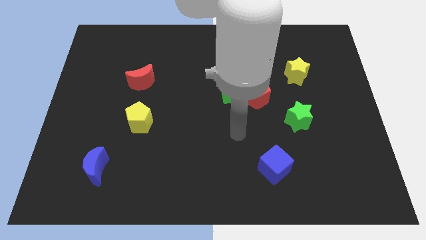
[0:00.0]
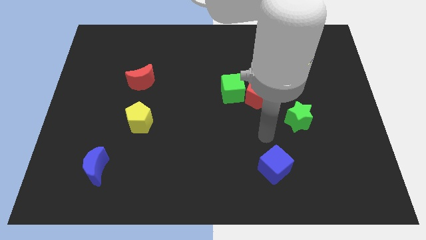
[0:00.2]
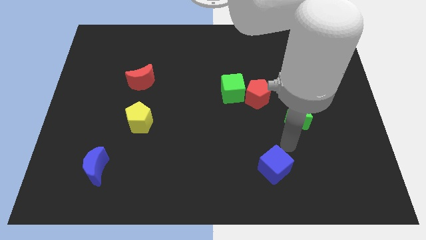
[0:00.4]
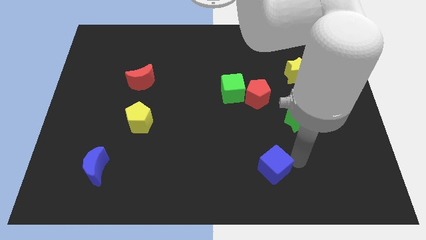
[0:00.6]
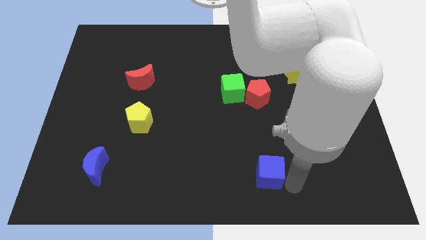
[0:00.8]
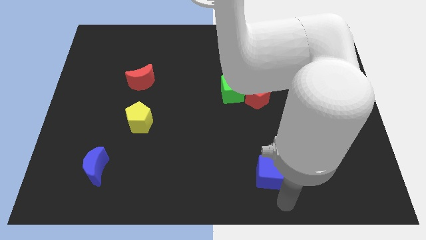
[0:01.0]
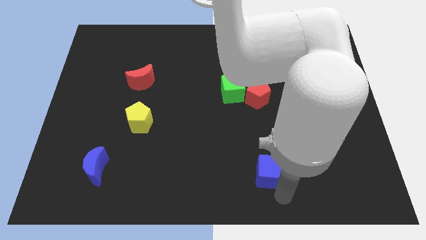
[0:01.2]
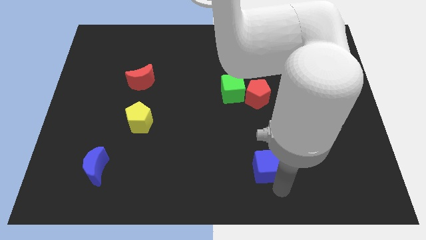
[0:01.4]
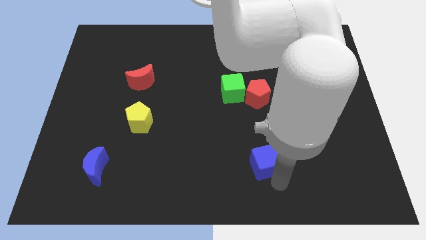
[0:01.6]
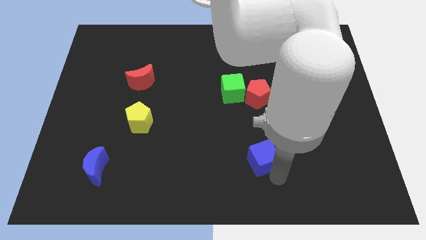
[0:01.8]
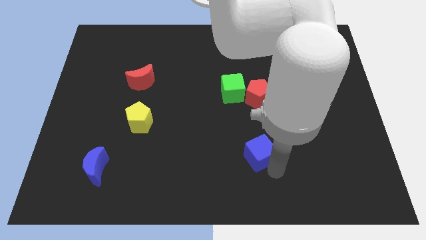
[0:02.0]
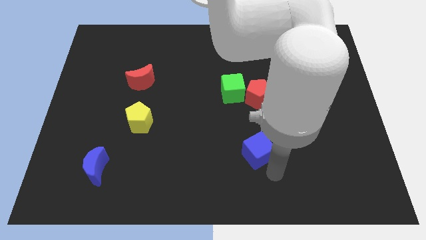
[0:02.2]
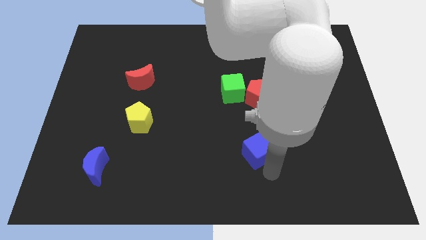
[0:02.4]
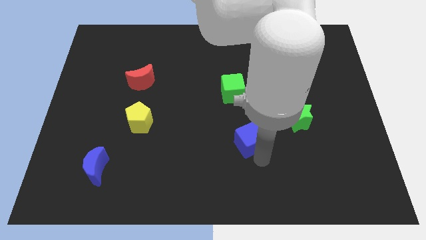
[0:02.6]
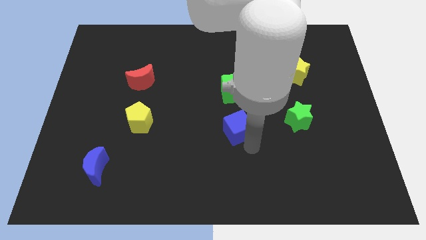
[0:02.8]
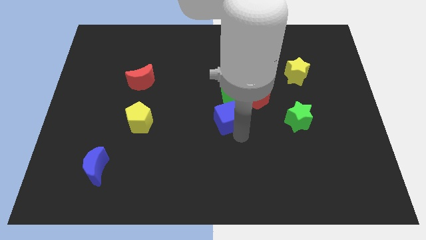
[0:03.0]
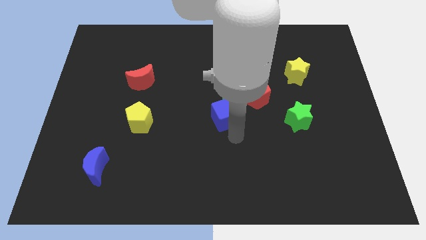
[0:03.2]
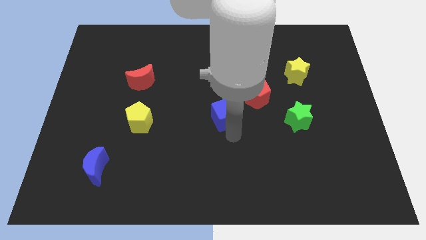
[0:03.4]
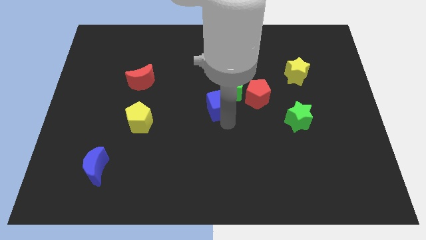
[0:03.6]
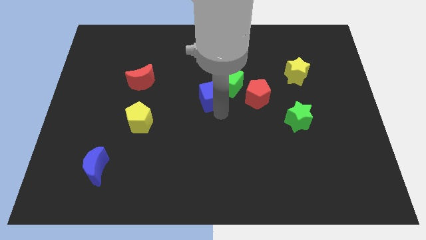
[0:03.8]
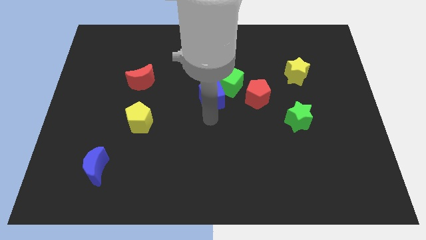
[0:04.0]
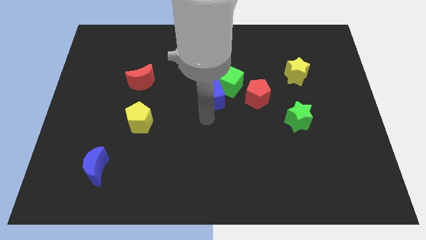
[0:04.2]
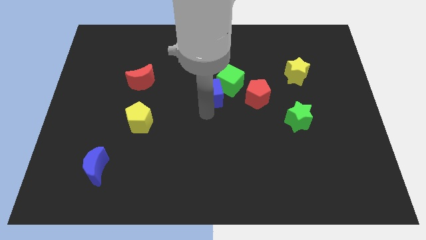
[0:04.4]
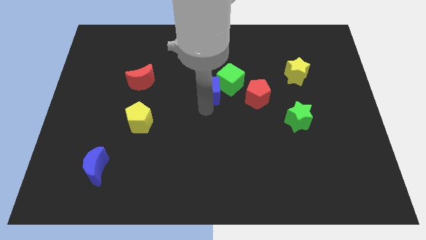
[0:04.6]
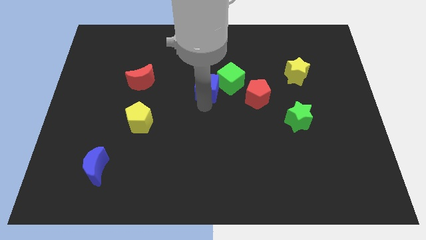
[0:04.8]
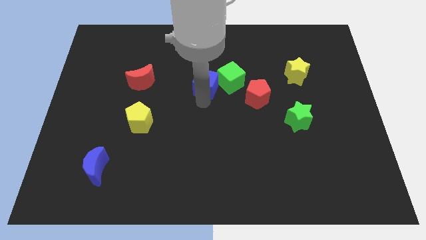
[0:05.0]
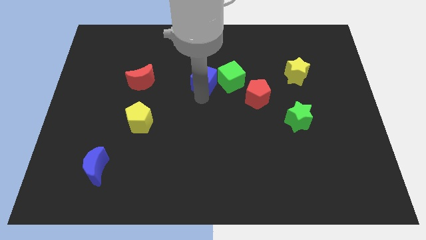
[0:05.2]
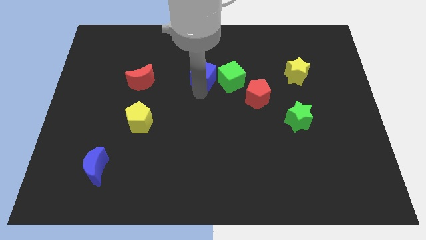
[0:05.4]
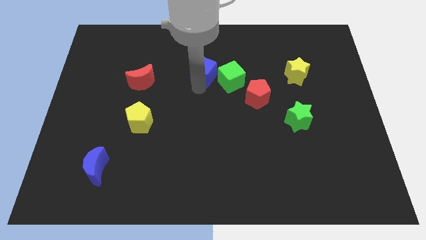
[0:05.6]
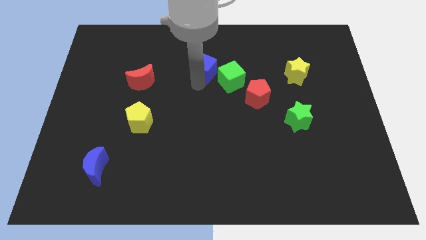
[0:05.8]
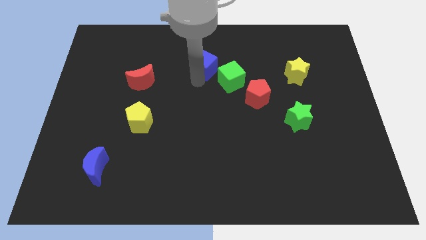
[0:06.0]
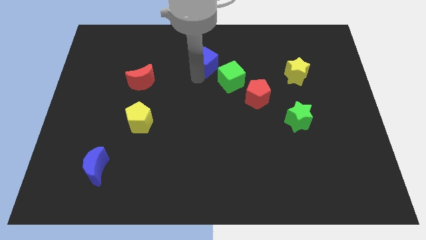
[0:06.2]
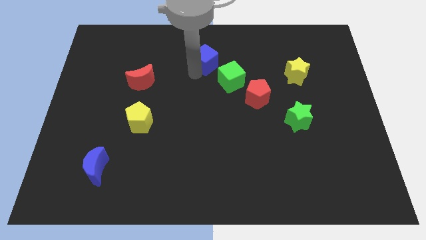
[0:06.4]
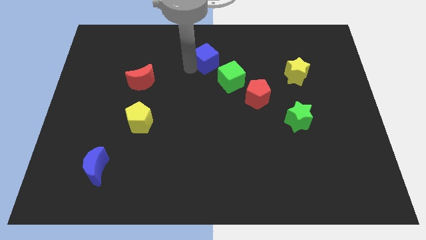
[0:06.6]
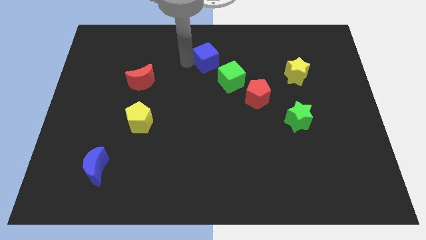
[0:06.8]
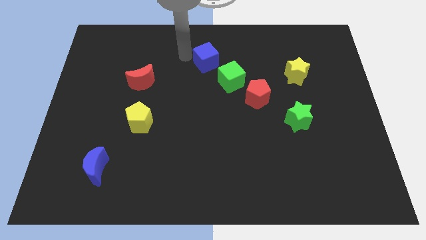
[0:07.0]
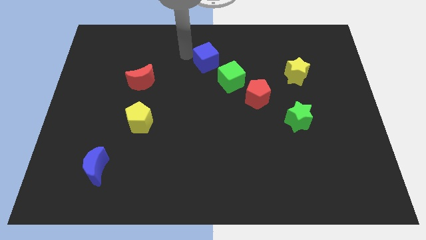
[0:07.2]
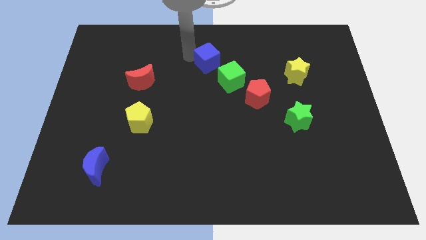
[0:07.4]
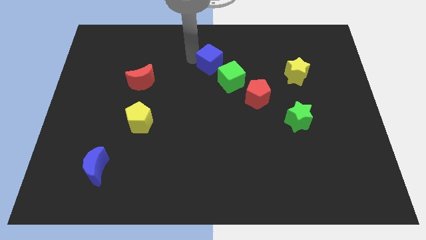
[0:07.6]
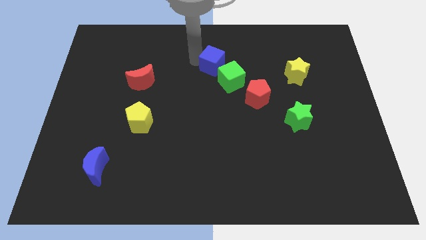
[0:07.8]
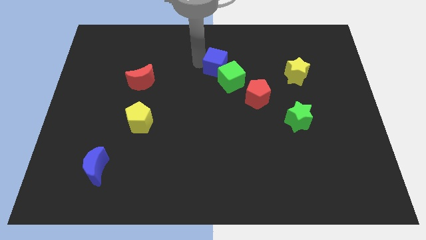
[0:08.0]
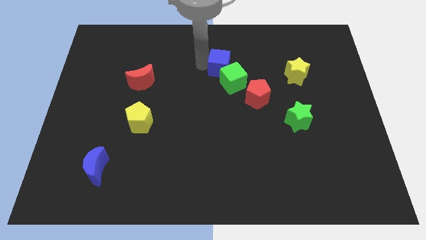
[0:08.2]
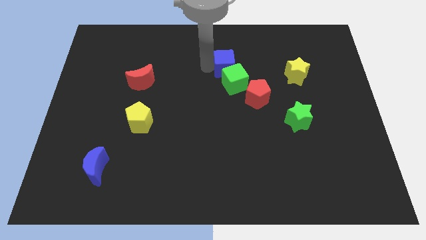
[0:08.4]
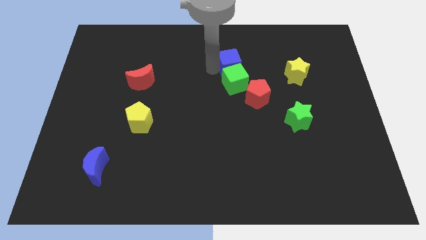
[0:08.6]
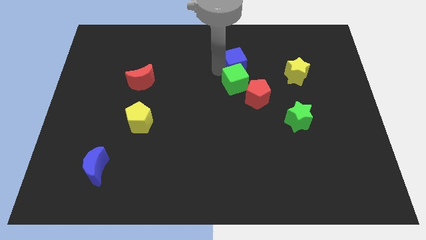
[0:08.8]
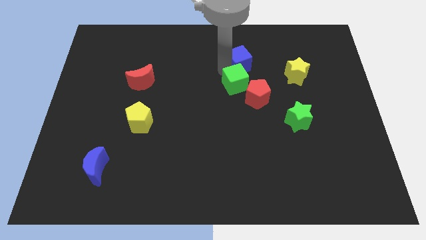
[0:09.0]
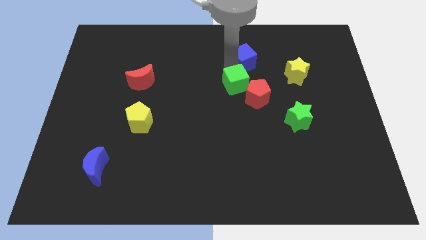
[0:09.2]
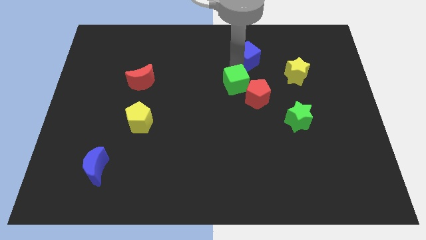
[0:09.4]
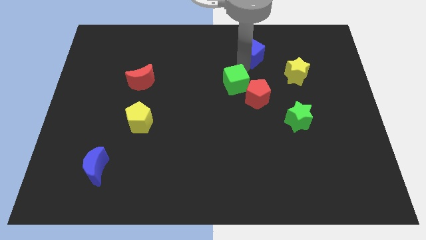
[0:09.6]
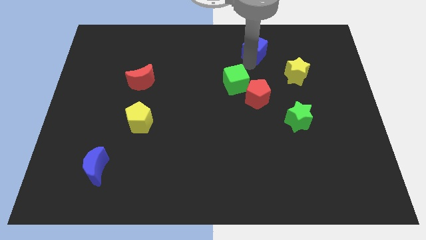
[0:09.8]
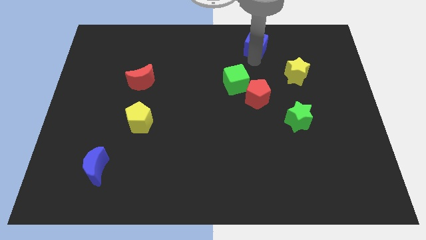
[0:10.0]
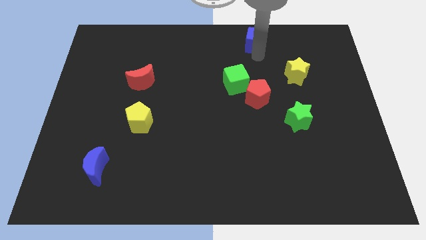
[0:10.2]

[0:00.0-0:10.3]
slide the blue cube to the top

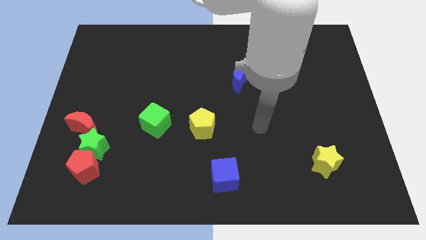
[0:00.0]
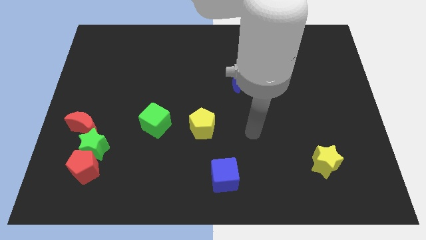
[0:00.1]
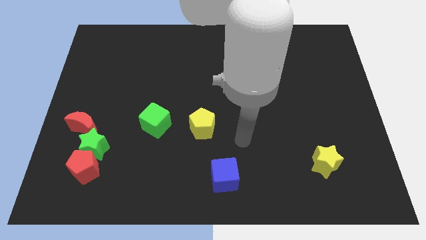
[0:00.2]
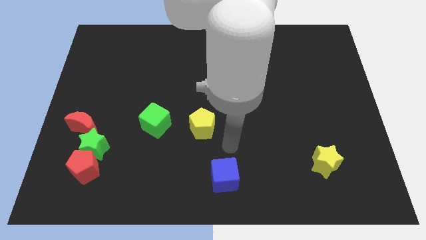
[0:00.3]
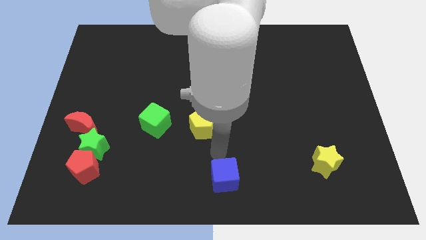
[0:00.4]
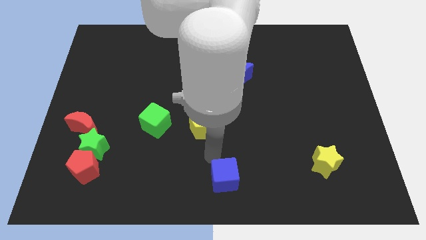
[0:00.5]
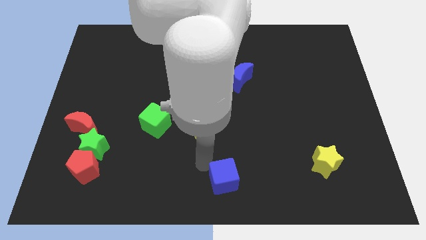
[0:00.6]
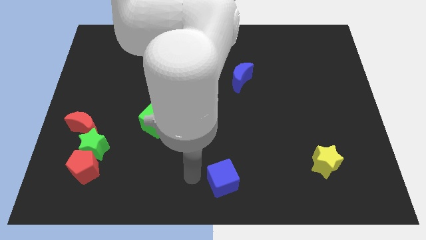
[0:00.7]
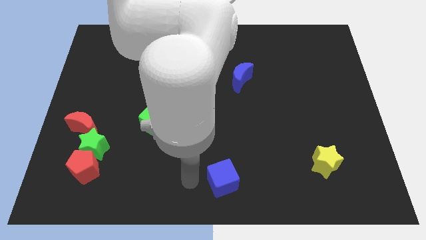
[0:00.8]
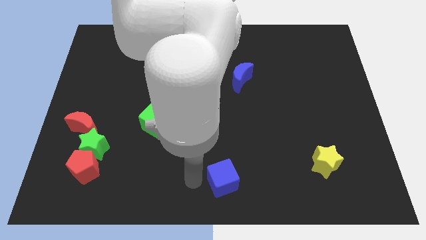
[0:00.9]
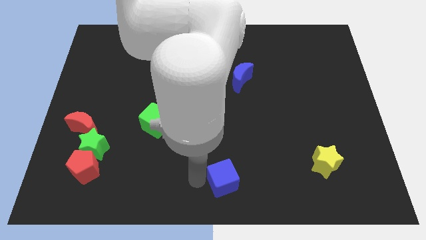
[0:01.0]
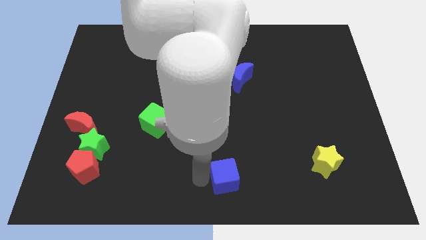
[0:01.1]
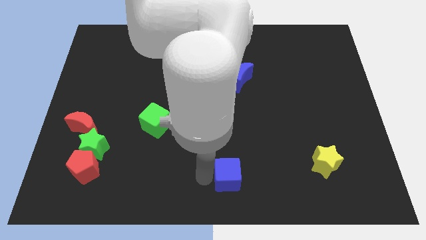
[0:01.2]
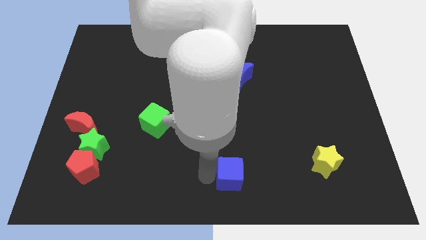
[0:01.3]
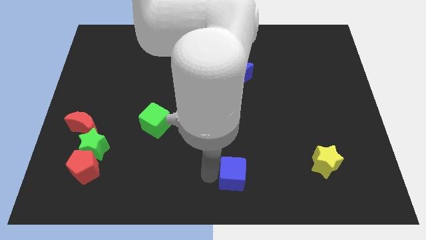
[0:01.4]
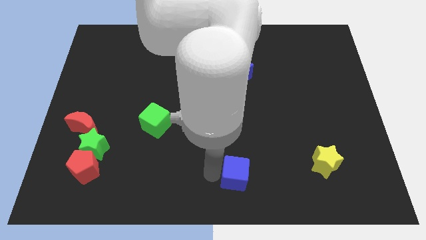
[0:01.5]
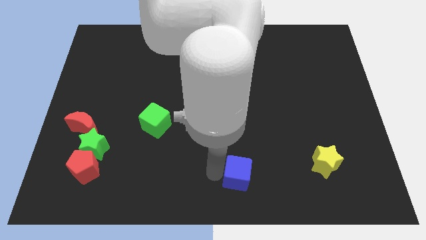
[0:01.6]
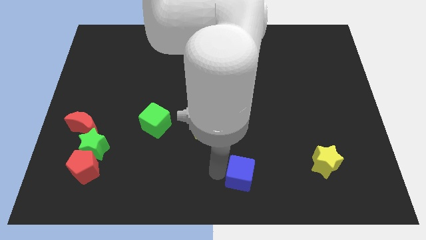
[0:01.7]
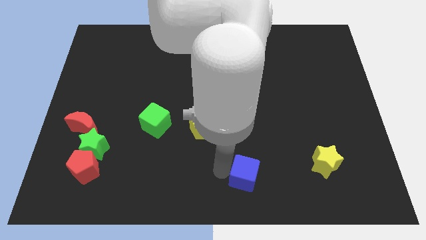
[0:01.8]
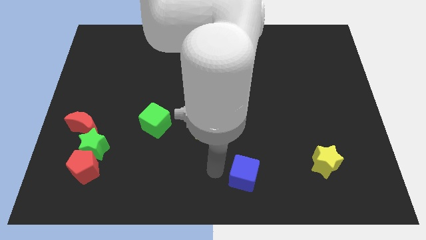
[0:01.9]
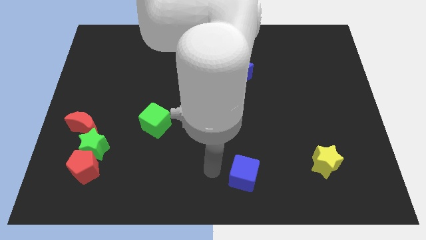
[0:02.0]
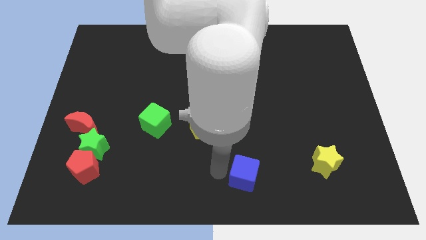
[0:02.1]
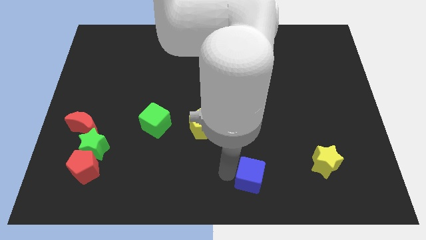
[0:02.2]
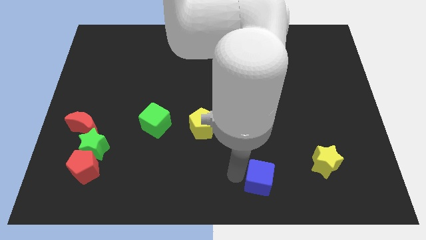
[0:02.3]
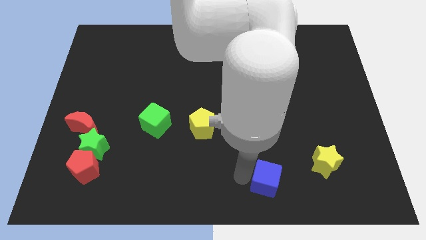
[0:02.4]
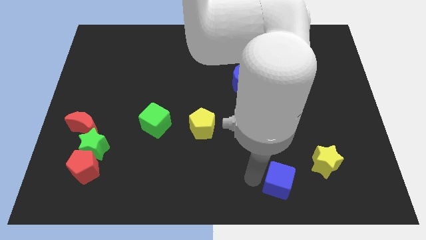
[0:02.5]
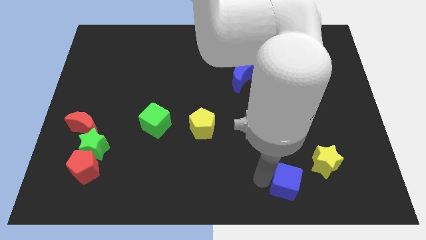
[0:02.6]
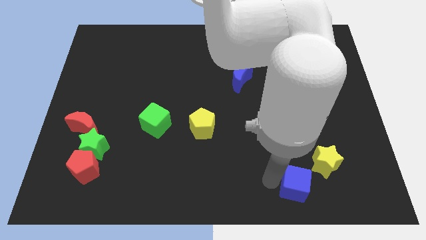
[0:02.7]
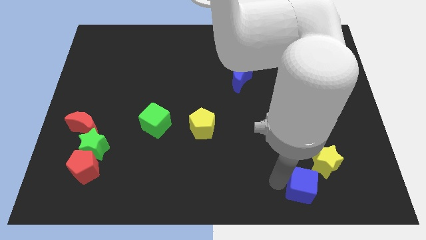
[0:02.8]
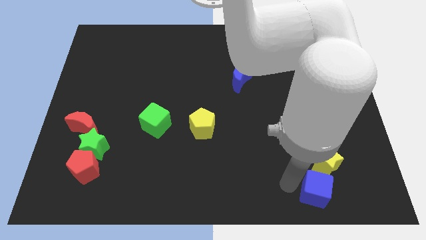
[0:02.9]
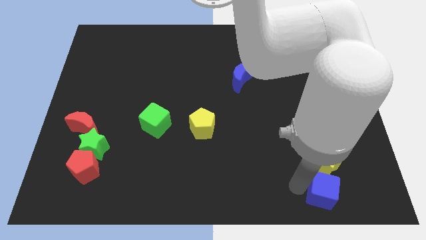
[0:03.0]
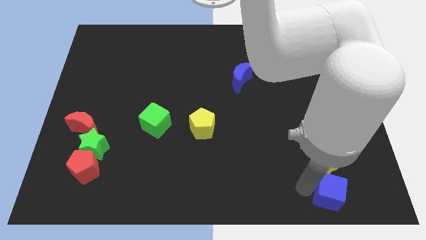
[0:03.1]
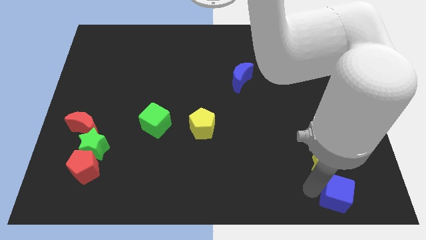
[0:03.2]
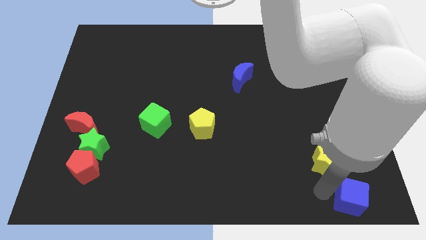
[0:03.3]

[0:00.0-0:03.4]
slide the blue cube to the lower right corner
